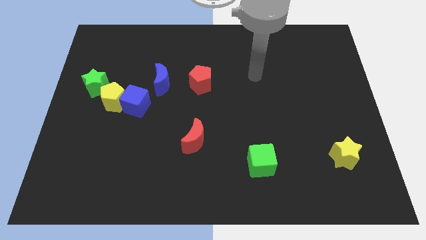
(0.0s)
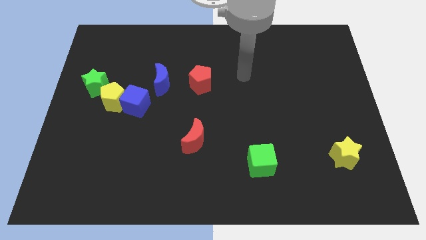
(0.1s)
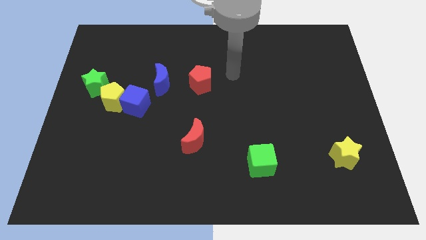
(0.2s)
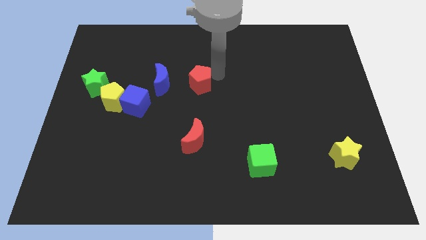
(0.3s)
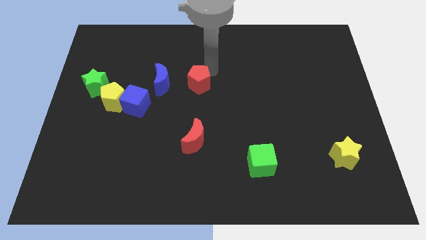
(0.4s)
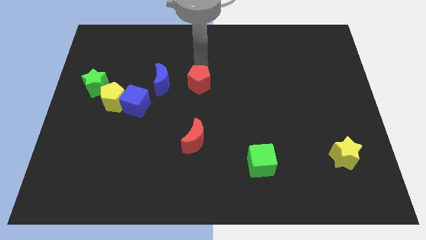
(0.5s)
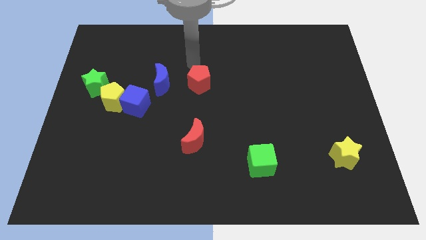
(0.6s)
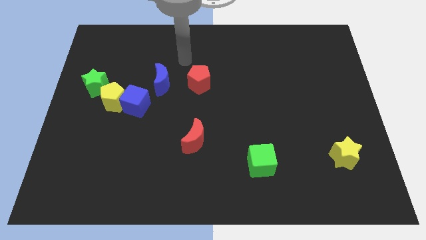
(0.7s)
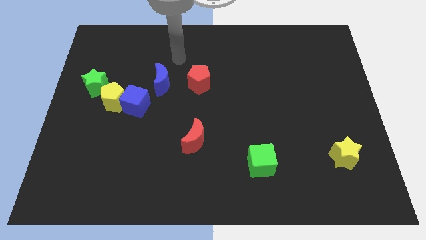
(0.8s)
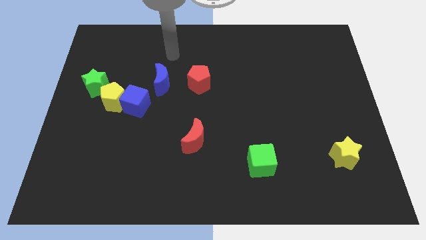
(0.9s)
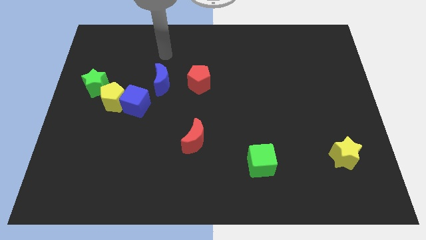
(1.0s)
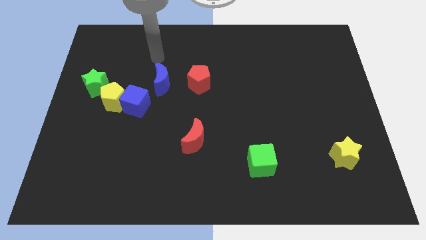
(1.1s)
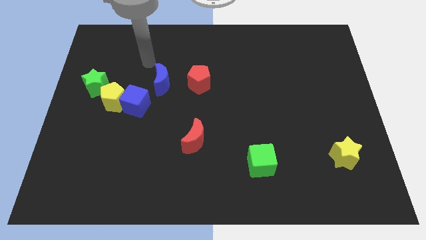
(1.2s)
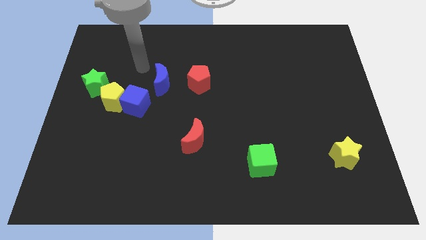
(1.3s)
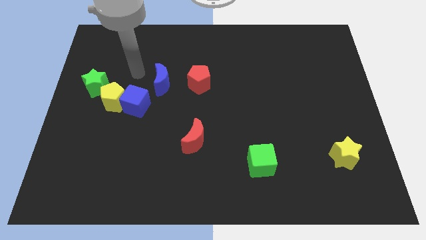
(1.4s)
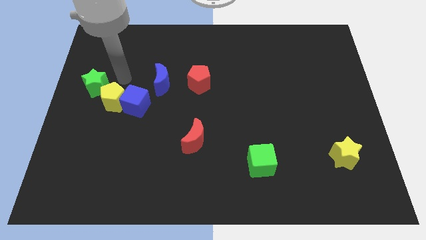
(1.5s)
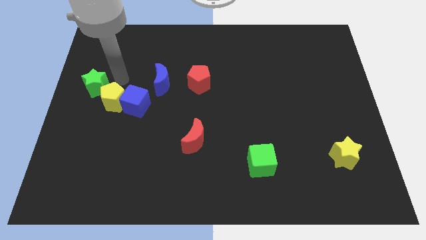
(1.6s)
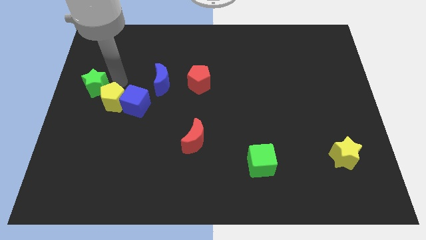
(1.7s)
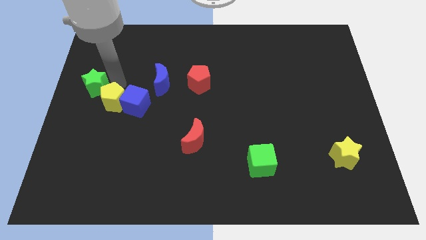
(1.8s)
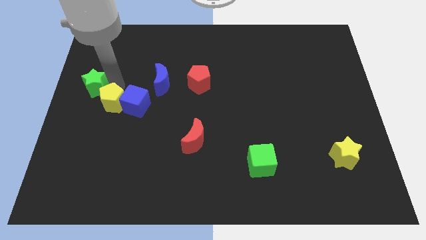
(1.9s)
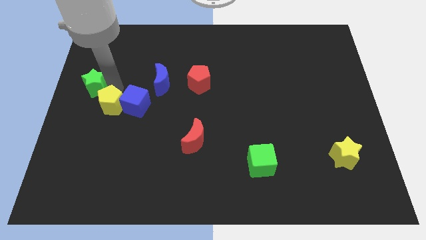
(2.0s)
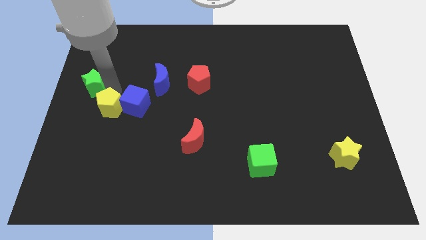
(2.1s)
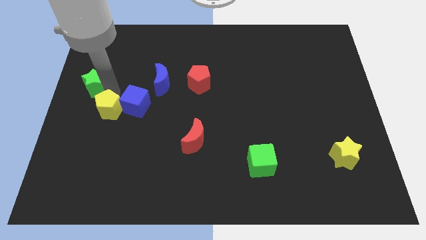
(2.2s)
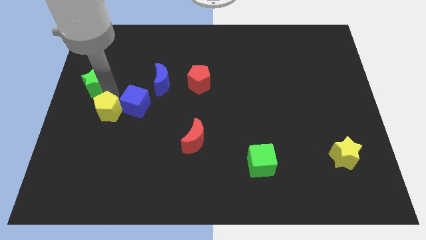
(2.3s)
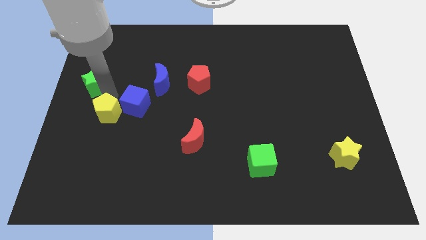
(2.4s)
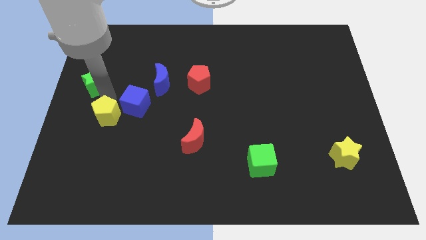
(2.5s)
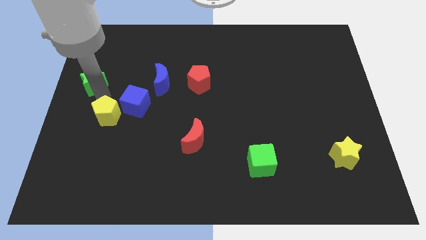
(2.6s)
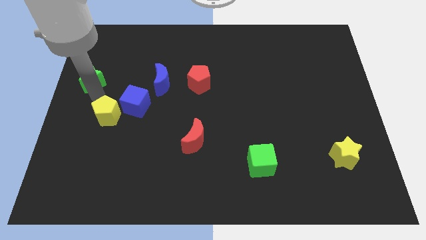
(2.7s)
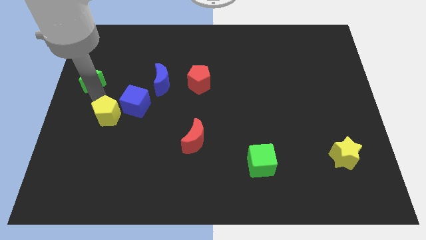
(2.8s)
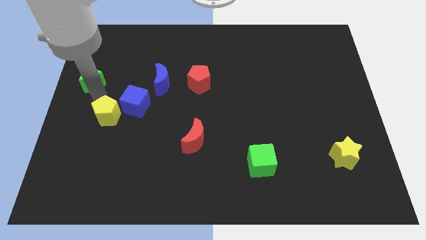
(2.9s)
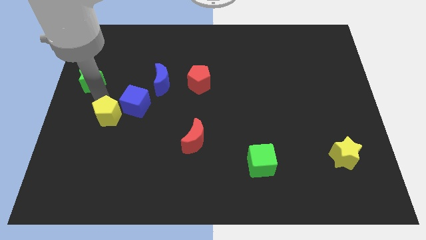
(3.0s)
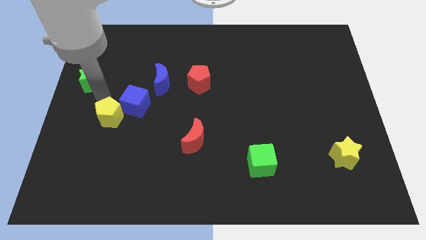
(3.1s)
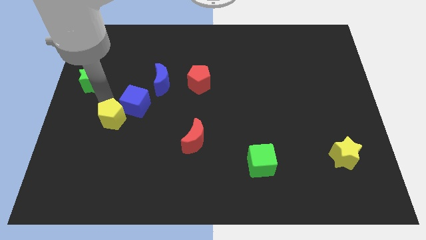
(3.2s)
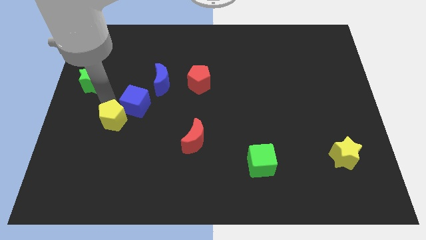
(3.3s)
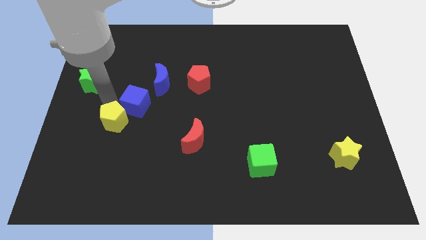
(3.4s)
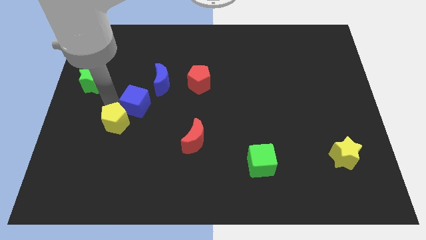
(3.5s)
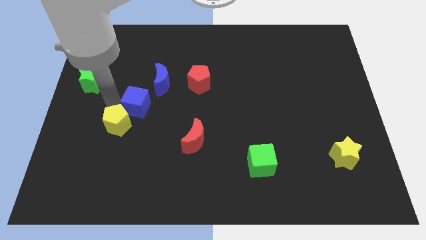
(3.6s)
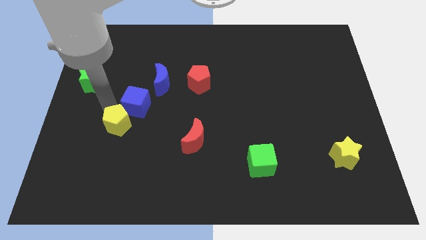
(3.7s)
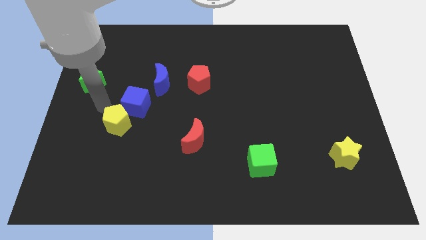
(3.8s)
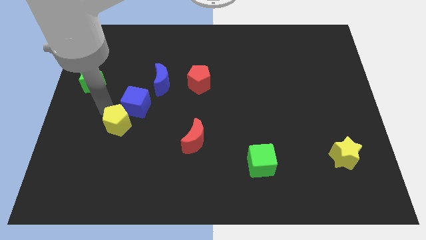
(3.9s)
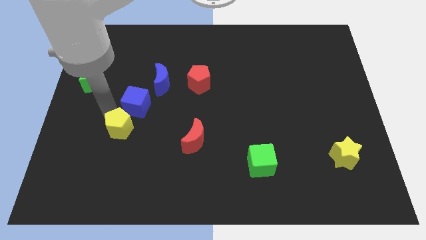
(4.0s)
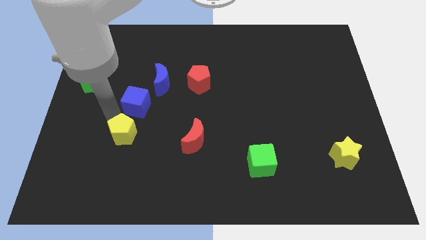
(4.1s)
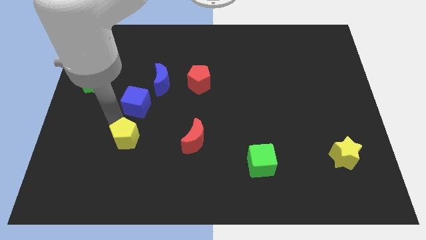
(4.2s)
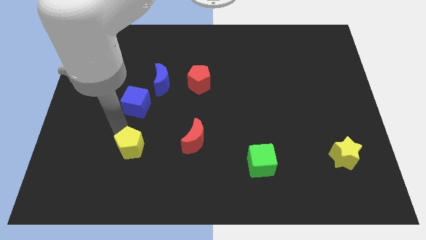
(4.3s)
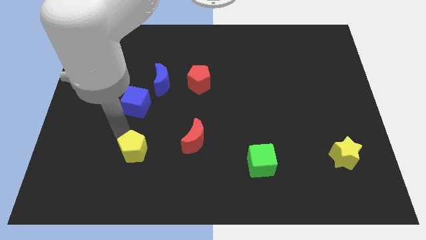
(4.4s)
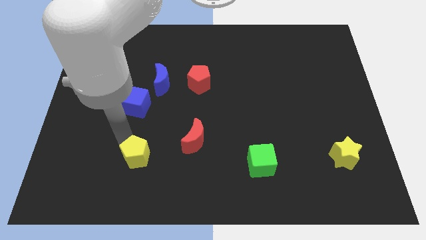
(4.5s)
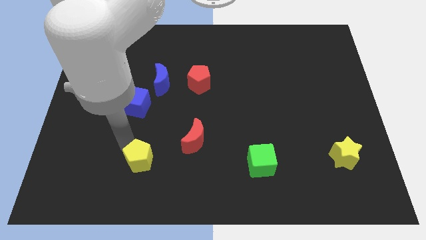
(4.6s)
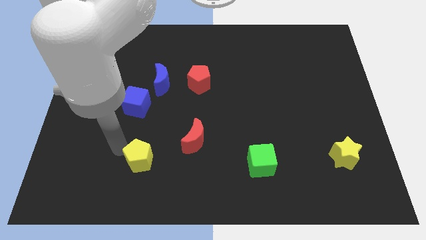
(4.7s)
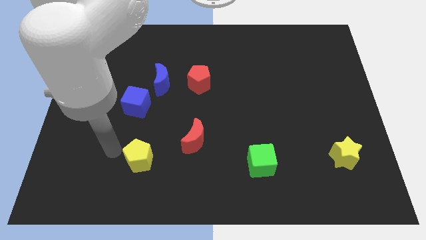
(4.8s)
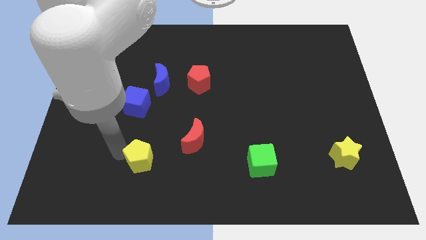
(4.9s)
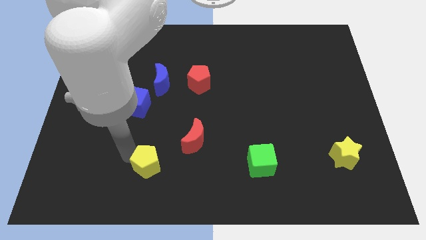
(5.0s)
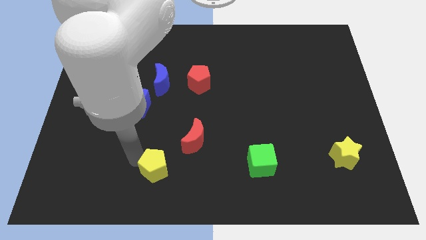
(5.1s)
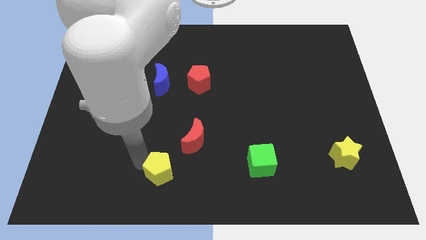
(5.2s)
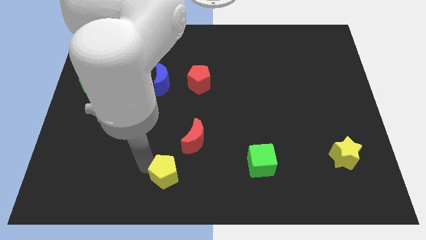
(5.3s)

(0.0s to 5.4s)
push the yellow pentagon to the bottom
